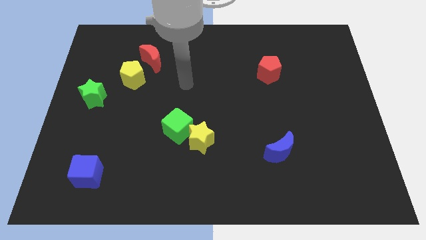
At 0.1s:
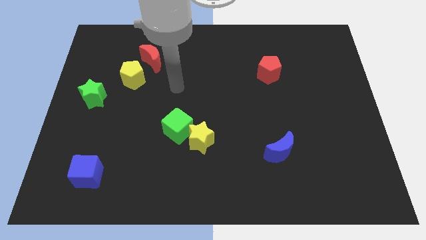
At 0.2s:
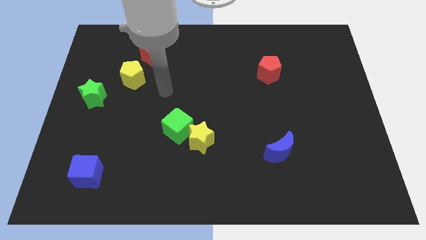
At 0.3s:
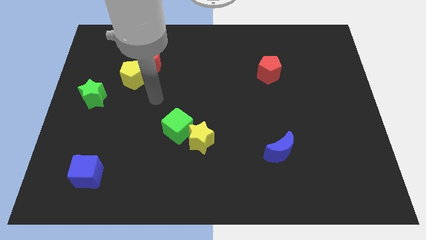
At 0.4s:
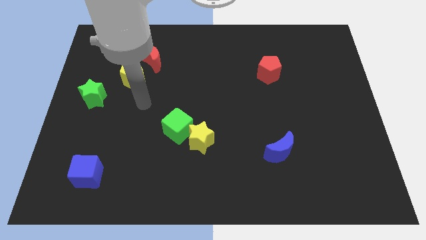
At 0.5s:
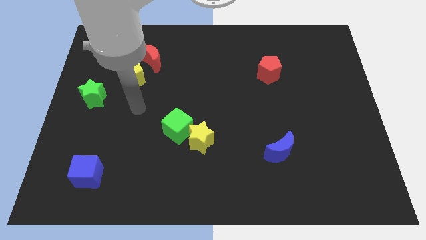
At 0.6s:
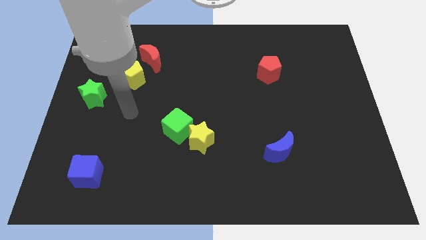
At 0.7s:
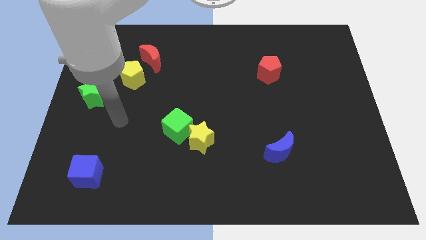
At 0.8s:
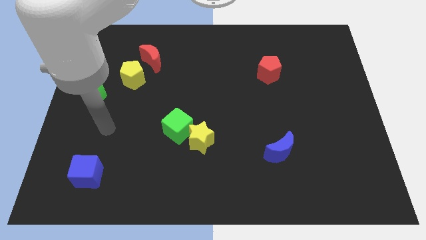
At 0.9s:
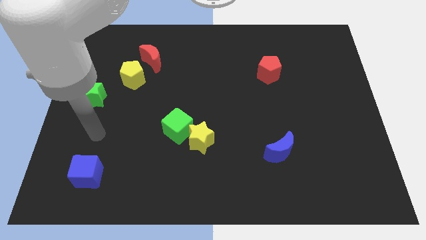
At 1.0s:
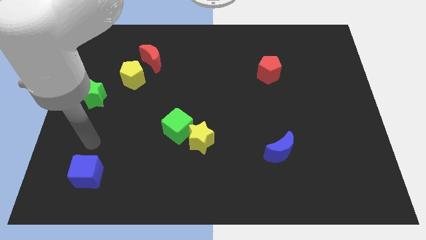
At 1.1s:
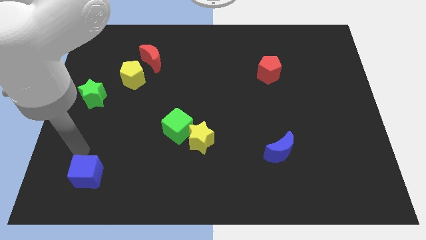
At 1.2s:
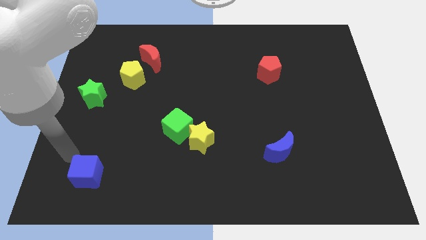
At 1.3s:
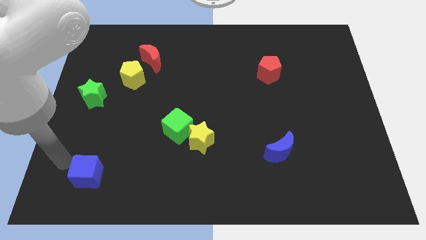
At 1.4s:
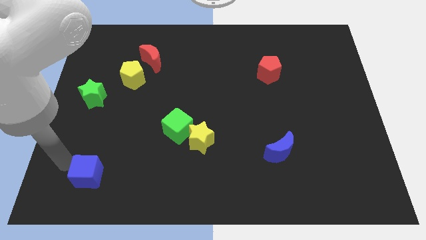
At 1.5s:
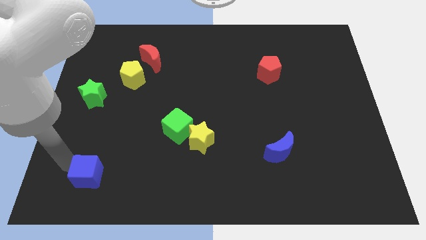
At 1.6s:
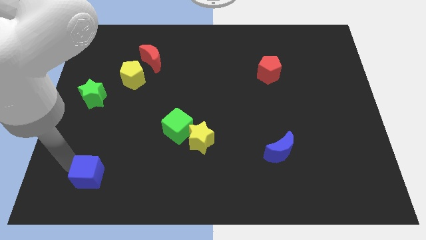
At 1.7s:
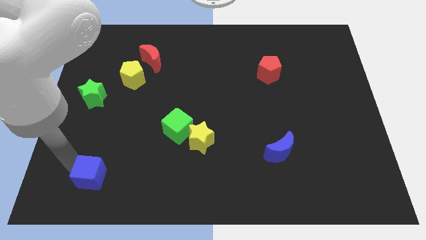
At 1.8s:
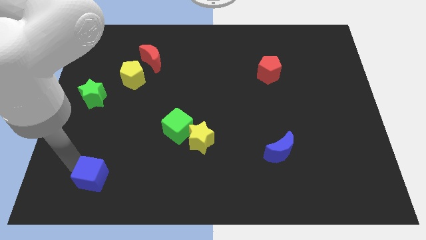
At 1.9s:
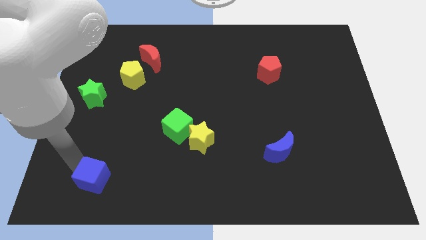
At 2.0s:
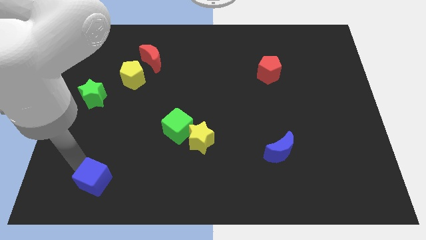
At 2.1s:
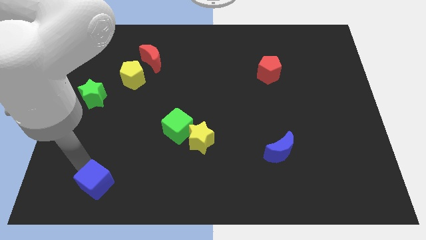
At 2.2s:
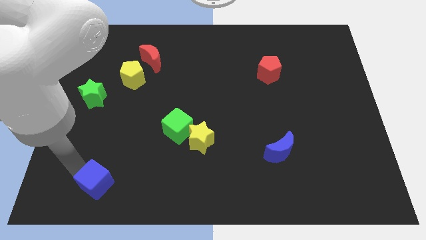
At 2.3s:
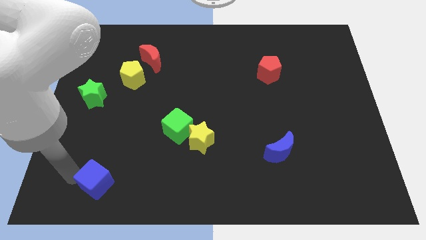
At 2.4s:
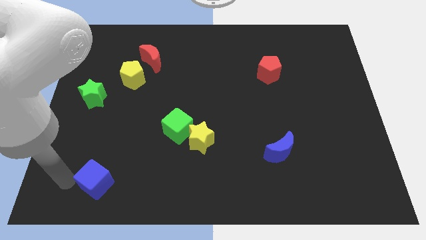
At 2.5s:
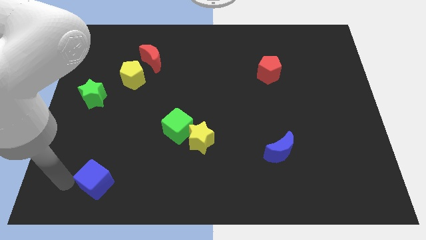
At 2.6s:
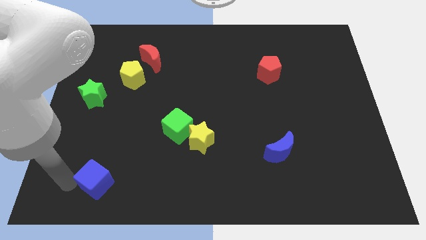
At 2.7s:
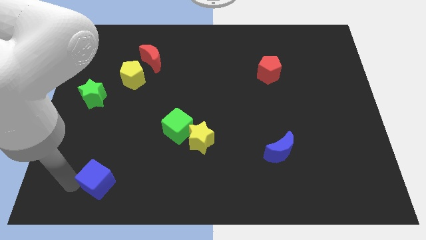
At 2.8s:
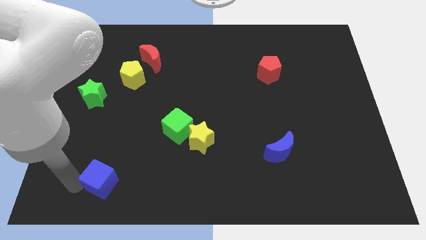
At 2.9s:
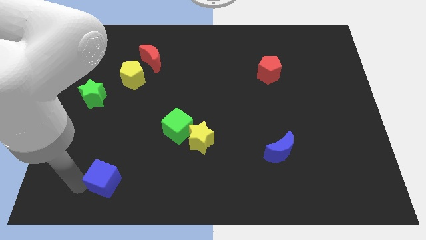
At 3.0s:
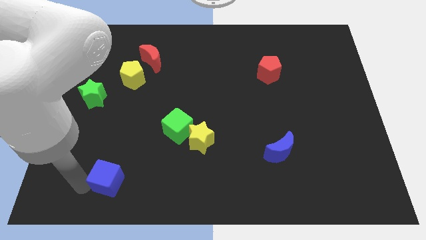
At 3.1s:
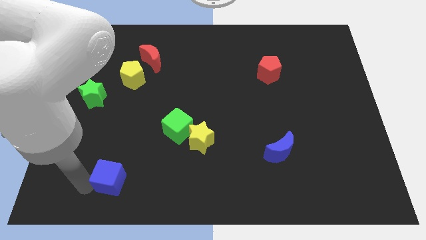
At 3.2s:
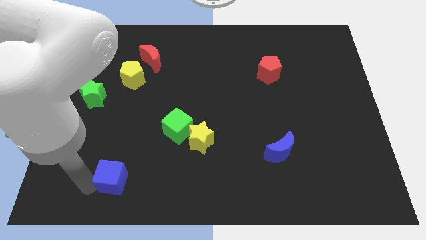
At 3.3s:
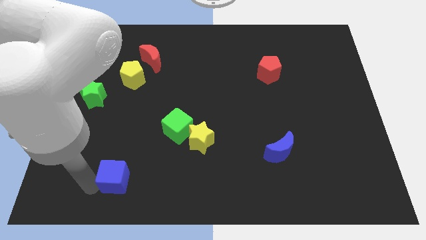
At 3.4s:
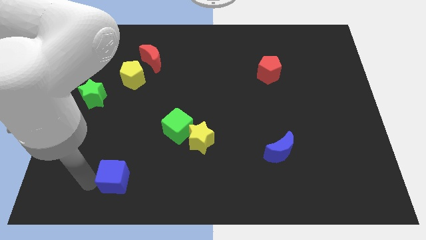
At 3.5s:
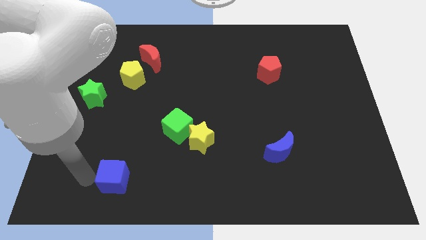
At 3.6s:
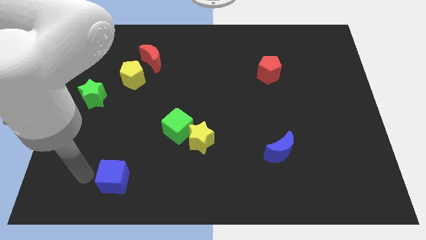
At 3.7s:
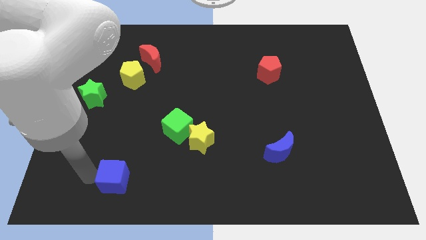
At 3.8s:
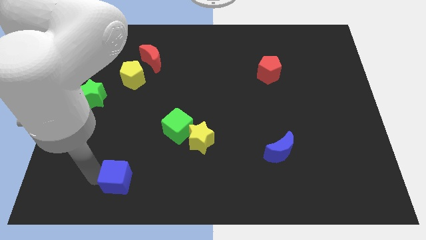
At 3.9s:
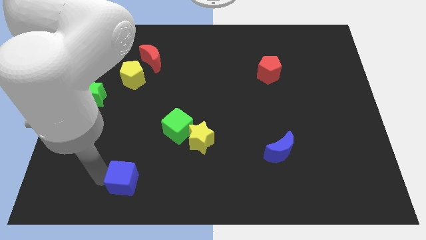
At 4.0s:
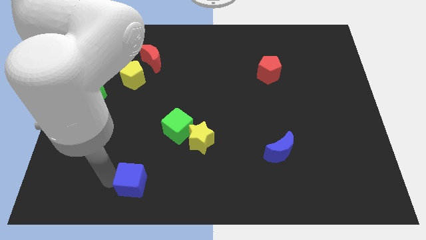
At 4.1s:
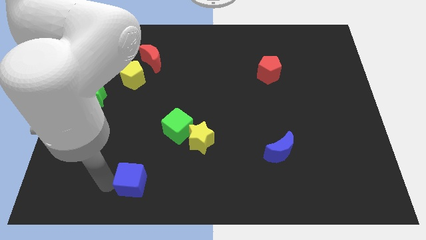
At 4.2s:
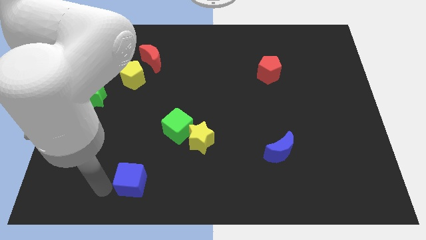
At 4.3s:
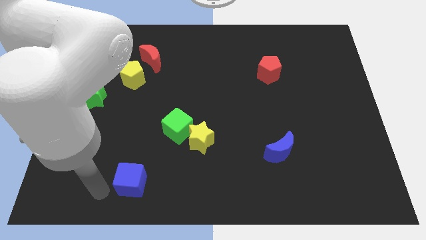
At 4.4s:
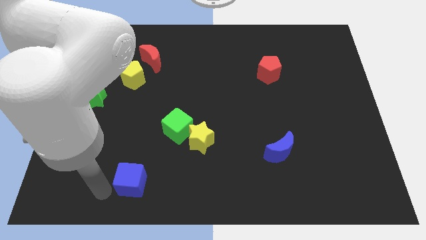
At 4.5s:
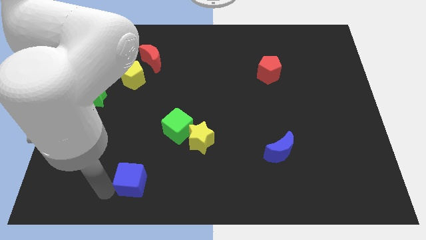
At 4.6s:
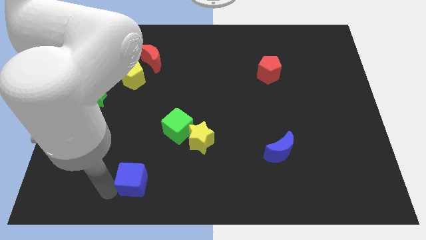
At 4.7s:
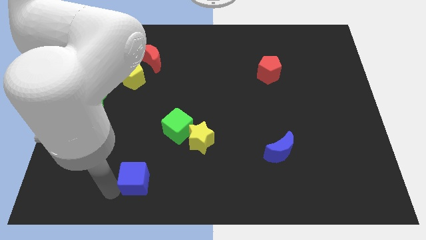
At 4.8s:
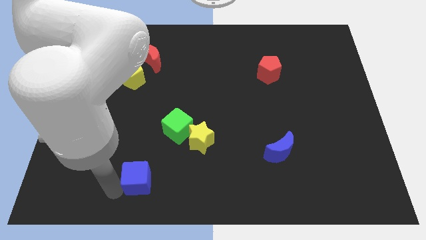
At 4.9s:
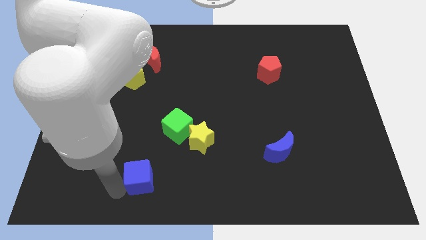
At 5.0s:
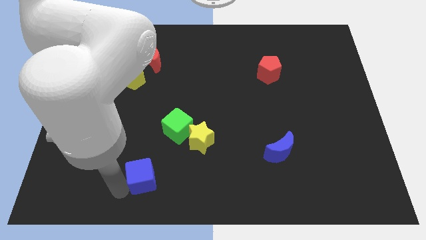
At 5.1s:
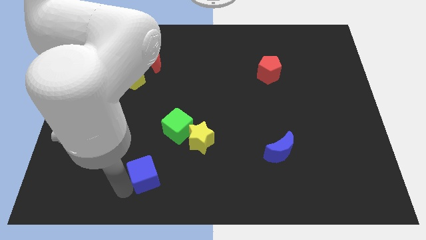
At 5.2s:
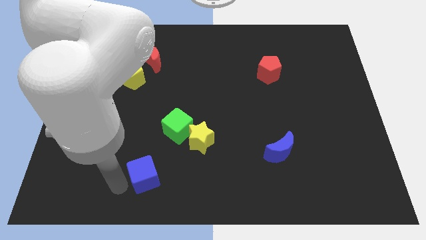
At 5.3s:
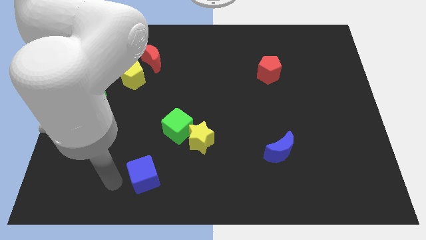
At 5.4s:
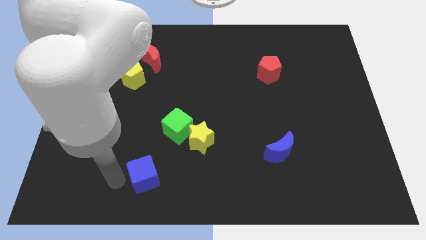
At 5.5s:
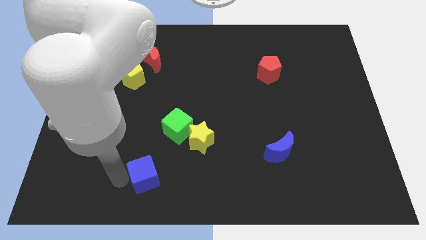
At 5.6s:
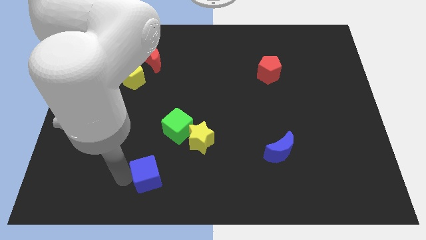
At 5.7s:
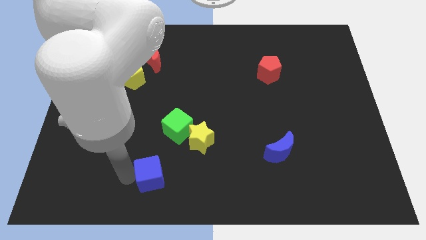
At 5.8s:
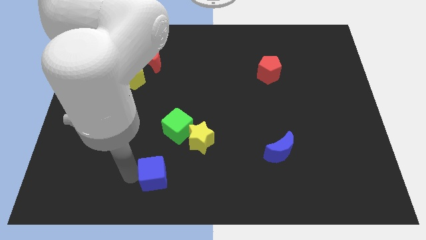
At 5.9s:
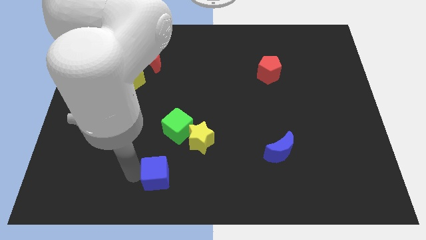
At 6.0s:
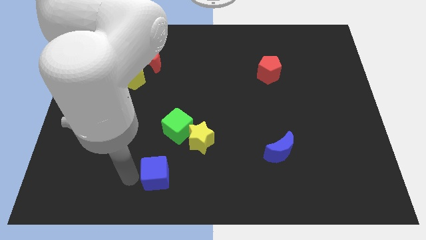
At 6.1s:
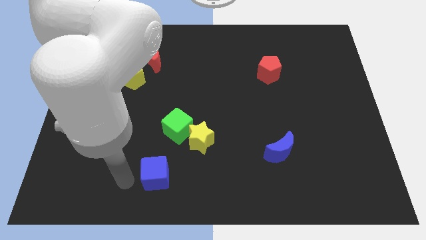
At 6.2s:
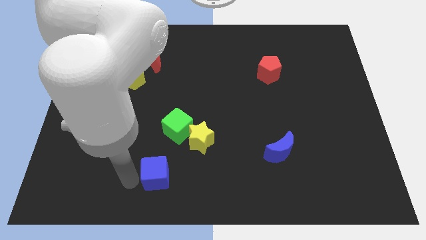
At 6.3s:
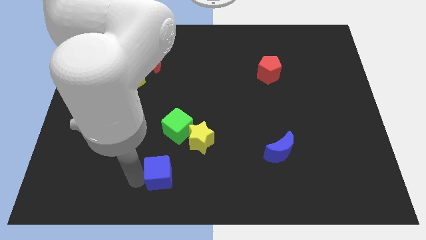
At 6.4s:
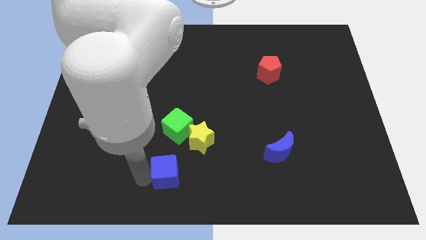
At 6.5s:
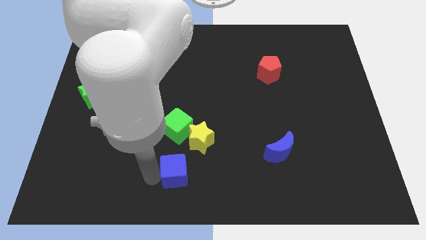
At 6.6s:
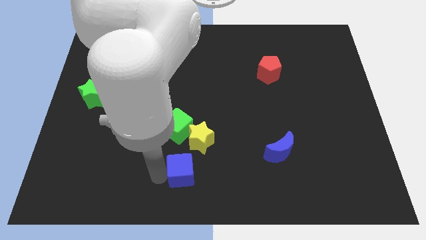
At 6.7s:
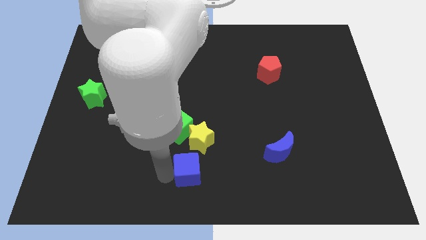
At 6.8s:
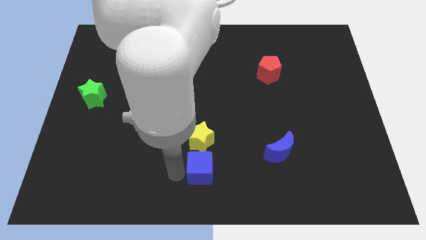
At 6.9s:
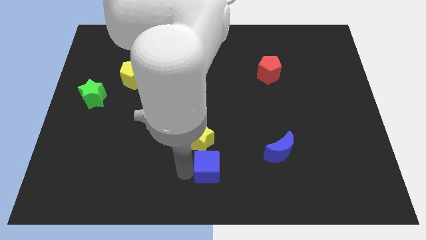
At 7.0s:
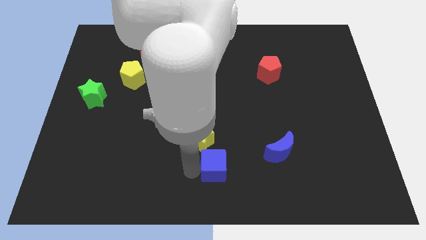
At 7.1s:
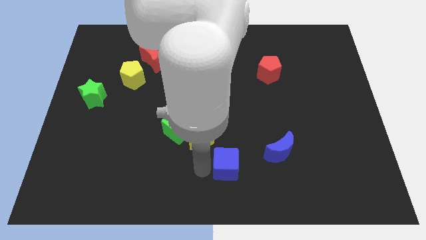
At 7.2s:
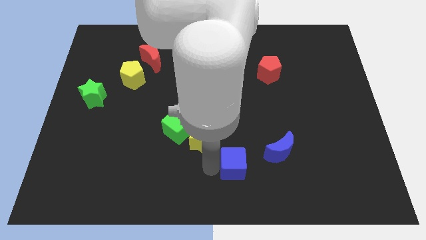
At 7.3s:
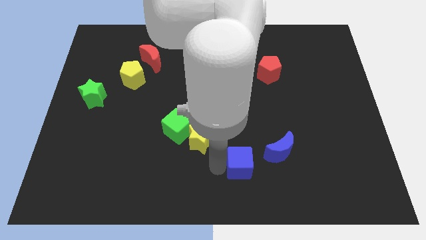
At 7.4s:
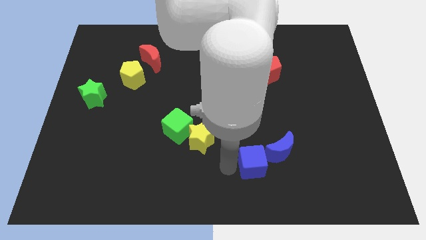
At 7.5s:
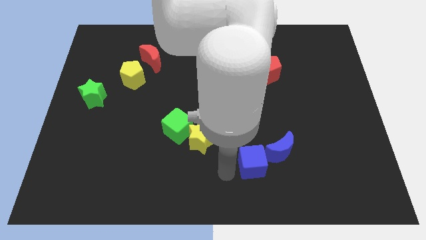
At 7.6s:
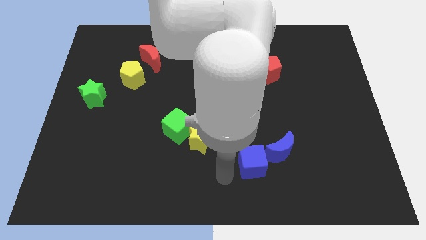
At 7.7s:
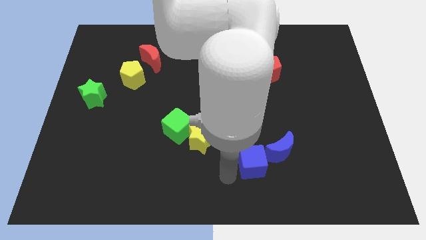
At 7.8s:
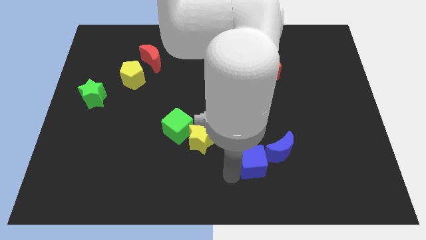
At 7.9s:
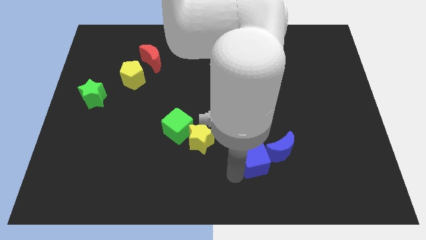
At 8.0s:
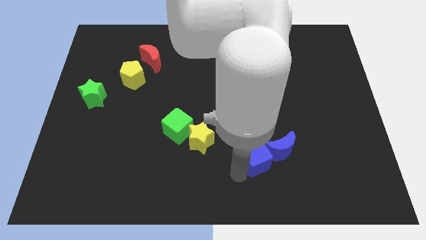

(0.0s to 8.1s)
put the blue cube close to the blue moon
